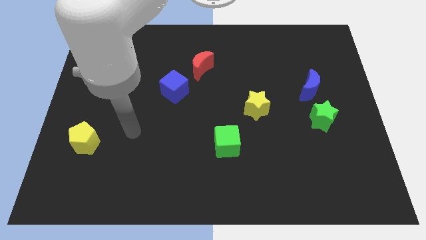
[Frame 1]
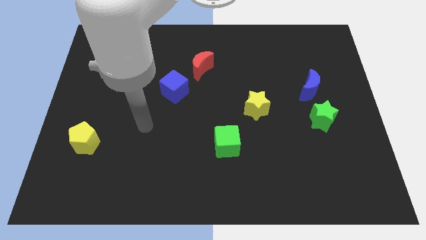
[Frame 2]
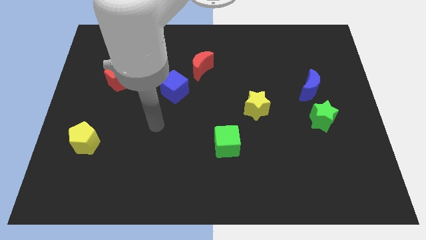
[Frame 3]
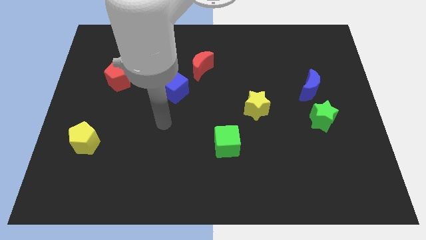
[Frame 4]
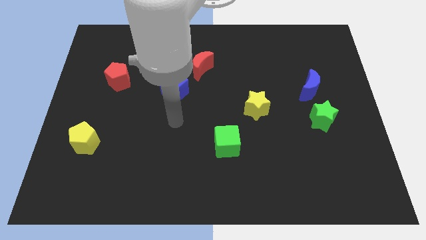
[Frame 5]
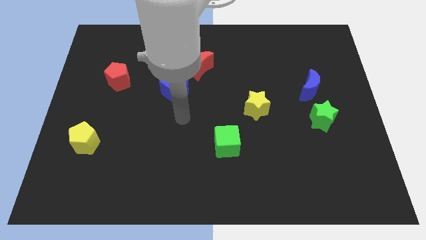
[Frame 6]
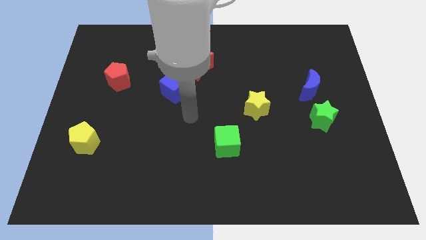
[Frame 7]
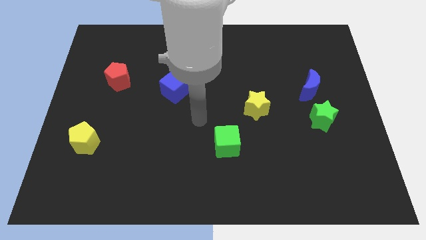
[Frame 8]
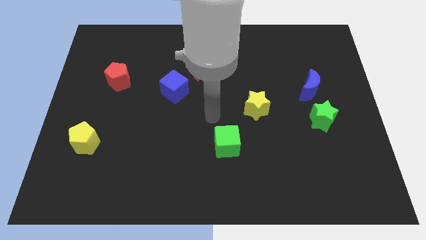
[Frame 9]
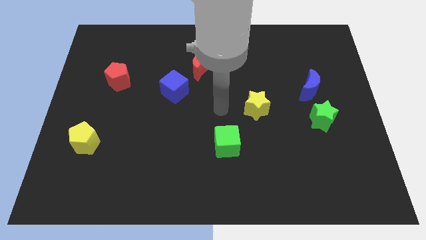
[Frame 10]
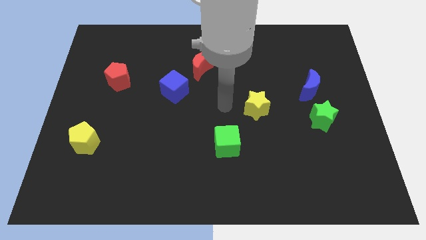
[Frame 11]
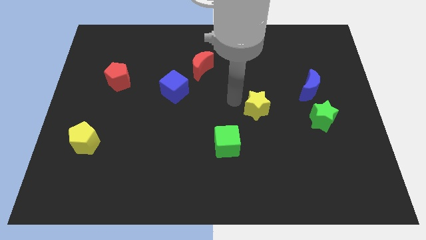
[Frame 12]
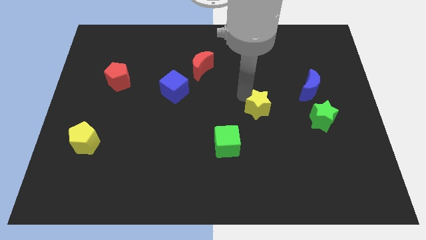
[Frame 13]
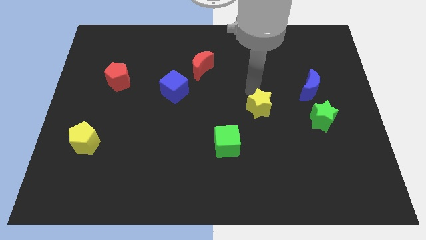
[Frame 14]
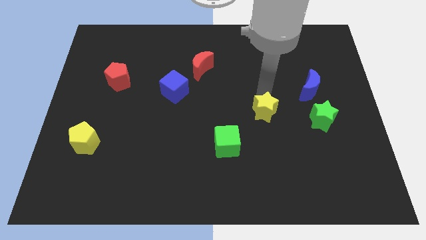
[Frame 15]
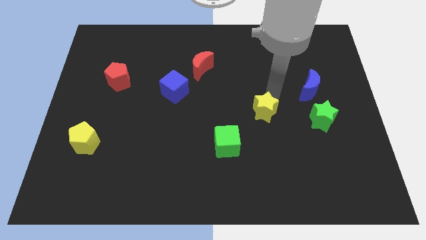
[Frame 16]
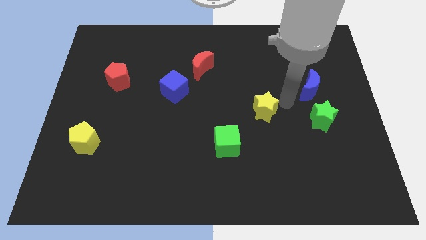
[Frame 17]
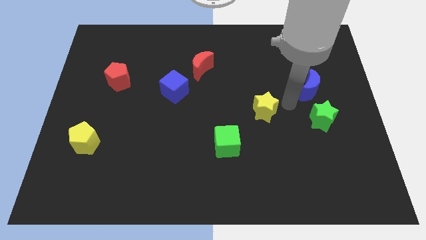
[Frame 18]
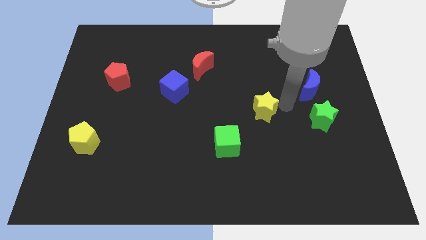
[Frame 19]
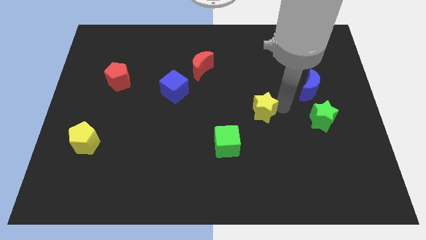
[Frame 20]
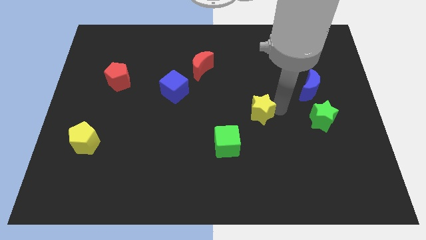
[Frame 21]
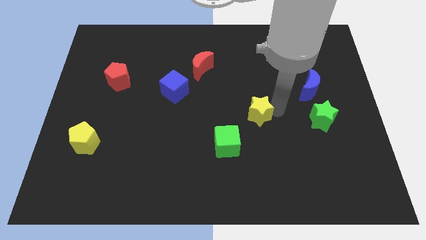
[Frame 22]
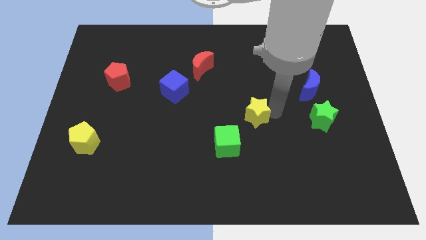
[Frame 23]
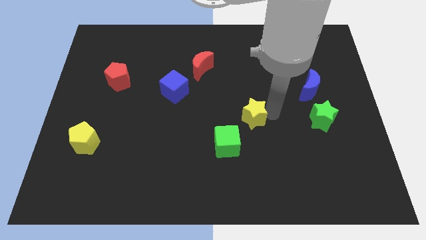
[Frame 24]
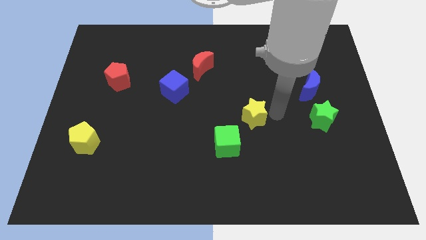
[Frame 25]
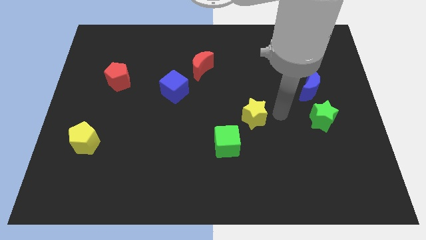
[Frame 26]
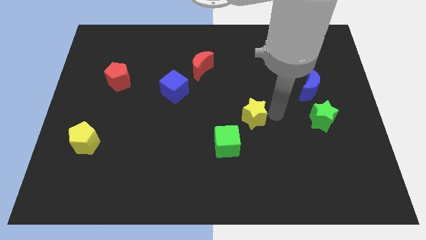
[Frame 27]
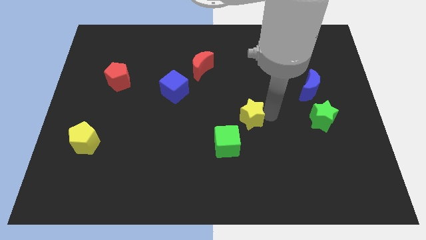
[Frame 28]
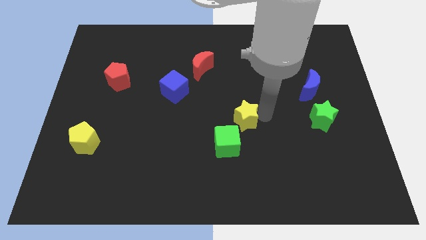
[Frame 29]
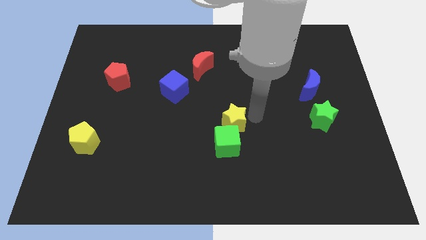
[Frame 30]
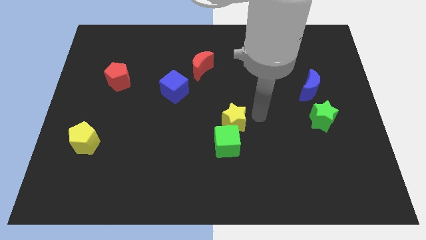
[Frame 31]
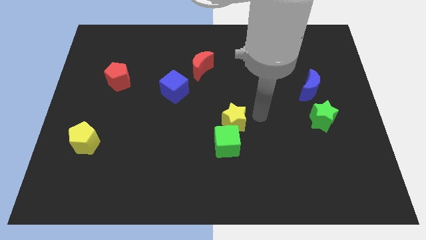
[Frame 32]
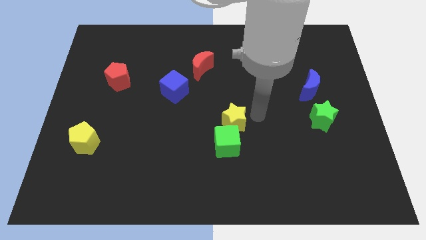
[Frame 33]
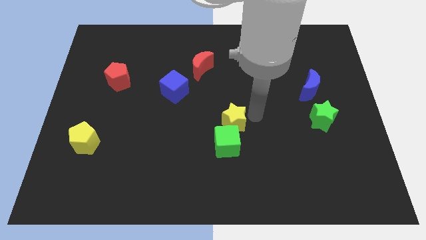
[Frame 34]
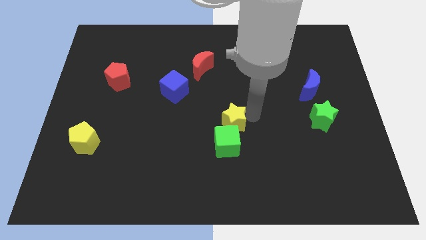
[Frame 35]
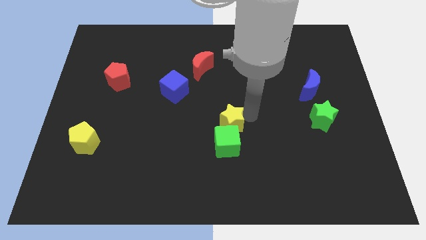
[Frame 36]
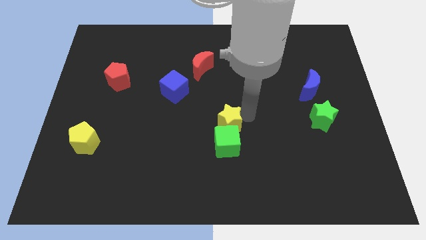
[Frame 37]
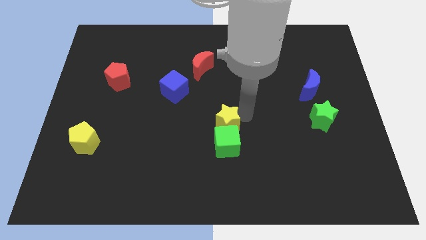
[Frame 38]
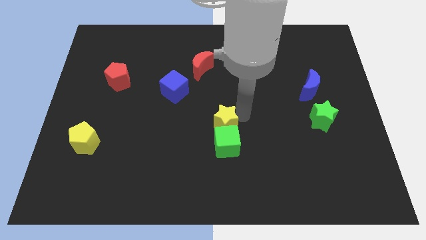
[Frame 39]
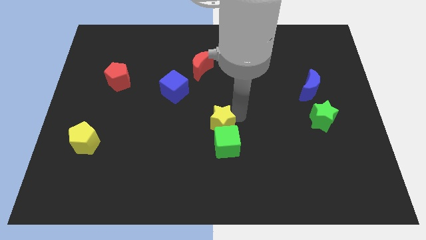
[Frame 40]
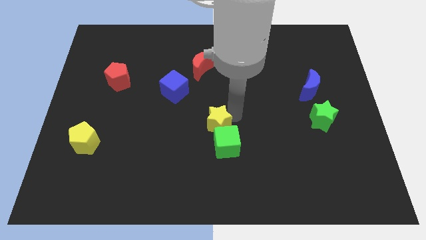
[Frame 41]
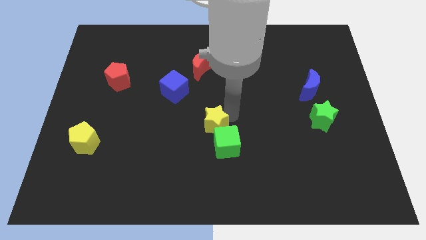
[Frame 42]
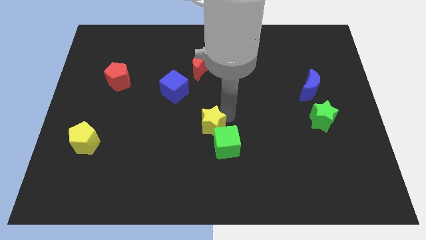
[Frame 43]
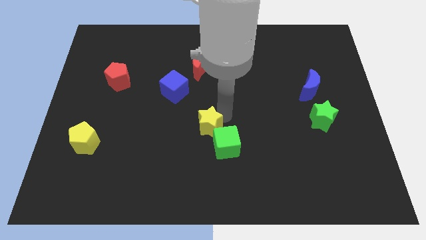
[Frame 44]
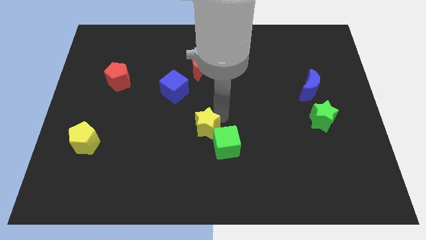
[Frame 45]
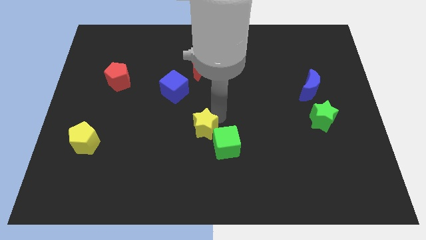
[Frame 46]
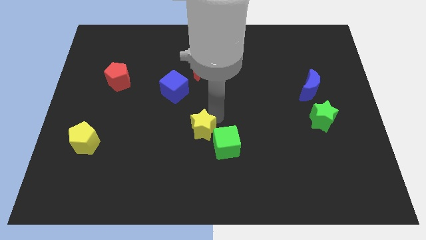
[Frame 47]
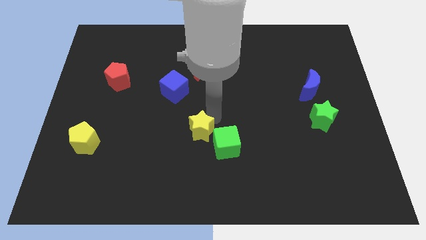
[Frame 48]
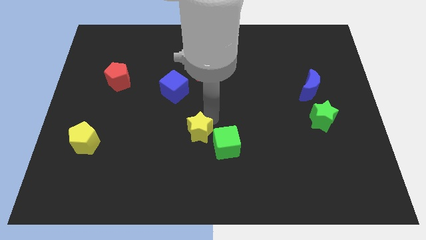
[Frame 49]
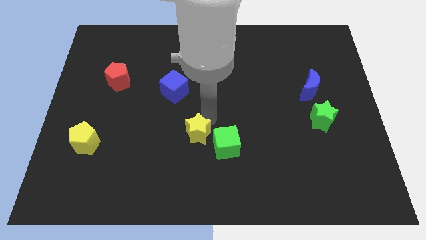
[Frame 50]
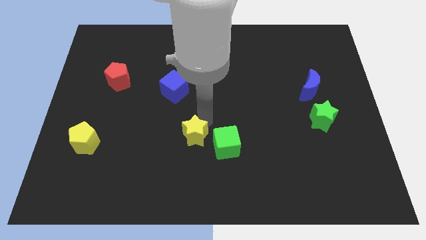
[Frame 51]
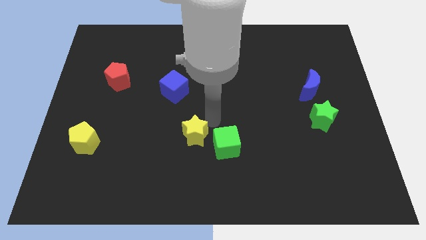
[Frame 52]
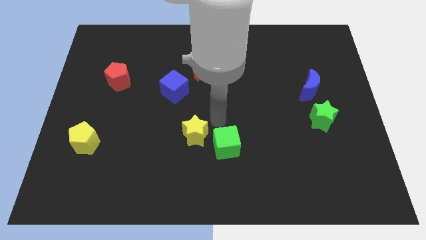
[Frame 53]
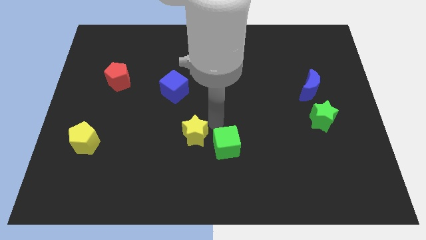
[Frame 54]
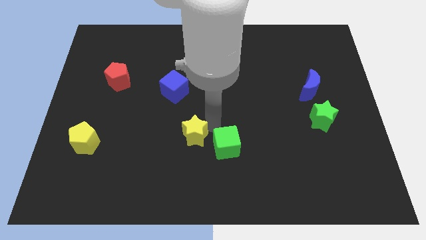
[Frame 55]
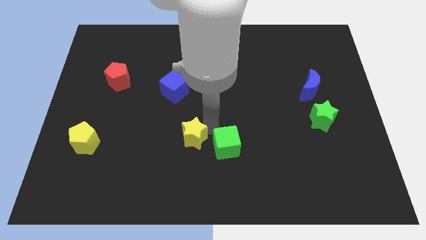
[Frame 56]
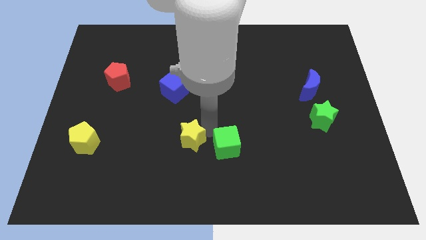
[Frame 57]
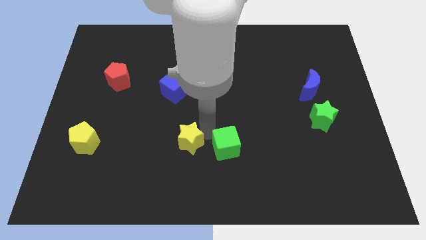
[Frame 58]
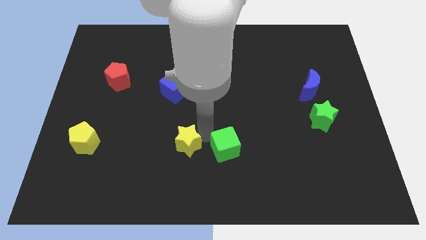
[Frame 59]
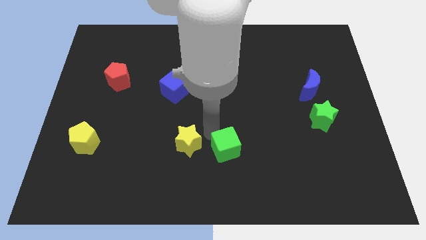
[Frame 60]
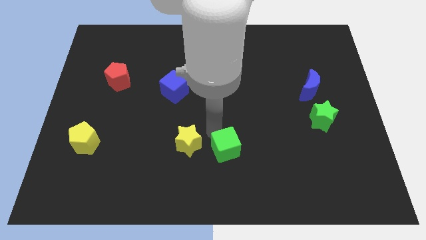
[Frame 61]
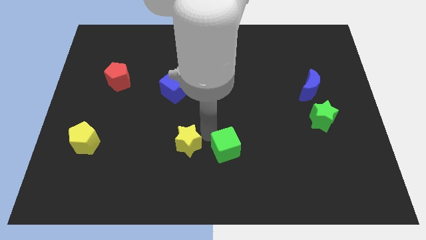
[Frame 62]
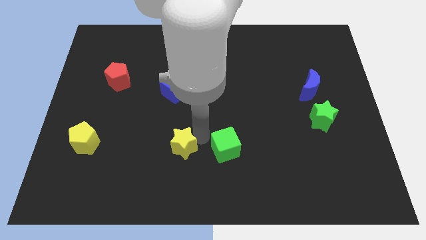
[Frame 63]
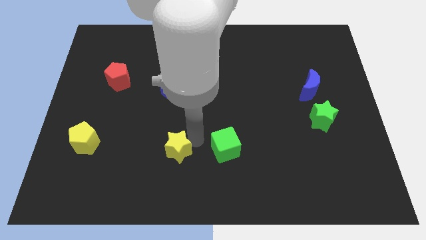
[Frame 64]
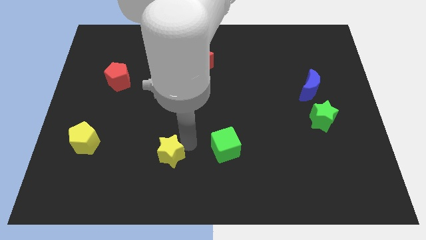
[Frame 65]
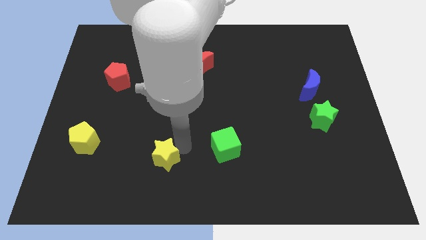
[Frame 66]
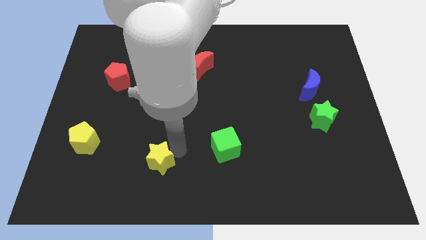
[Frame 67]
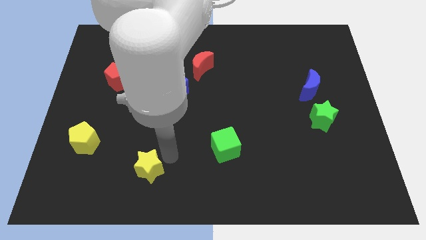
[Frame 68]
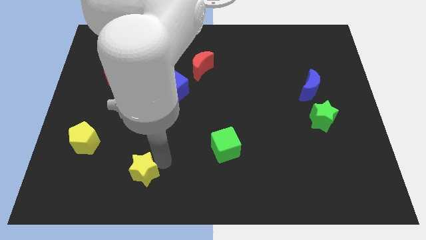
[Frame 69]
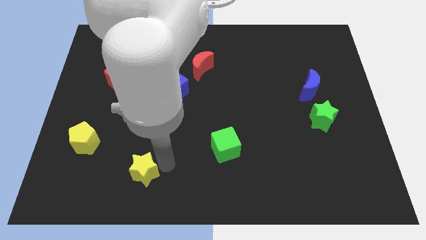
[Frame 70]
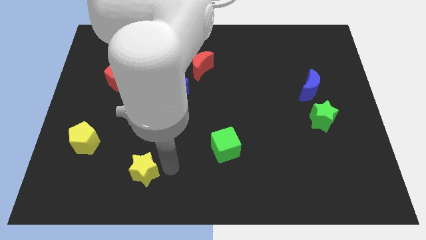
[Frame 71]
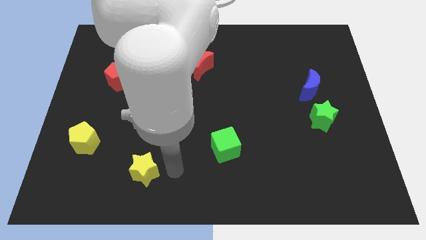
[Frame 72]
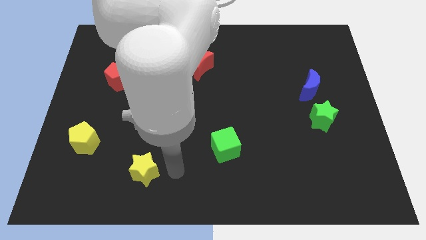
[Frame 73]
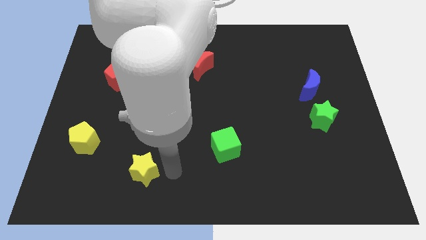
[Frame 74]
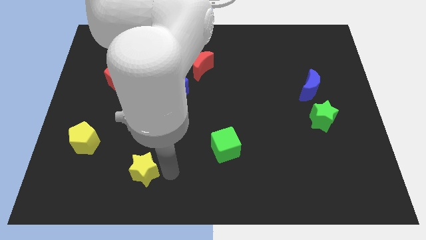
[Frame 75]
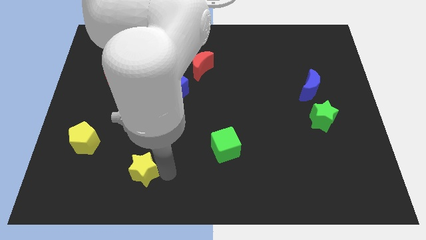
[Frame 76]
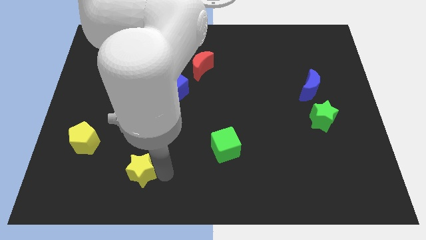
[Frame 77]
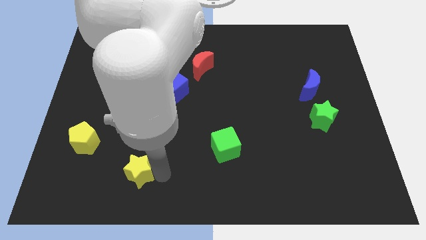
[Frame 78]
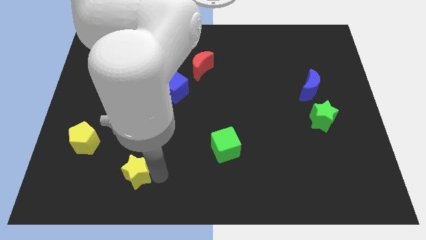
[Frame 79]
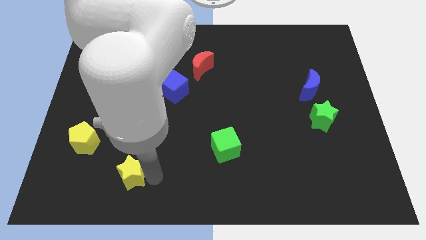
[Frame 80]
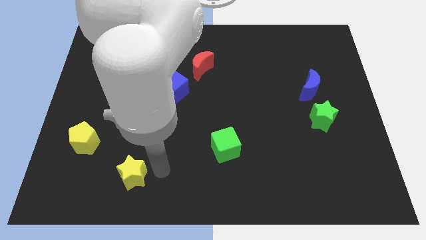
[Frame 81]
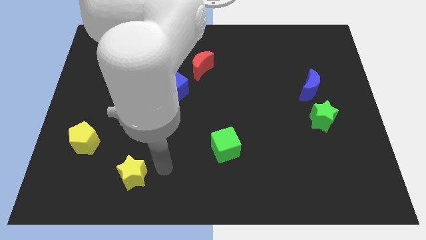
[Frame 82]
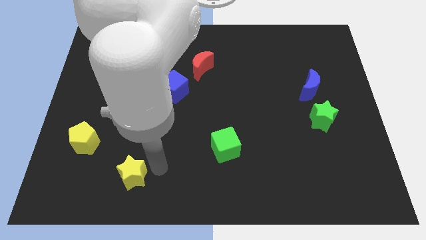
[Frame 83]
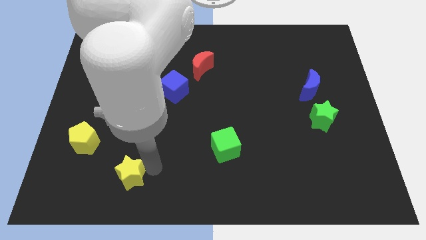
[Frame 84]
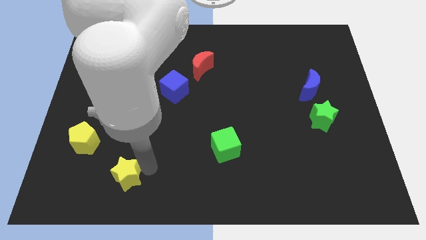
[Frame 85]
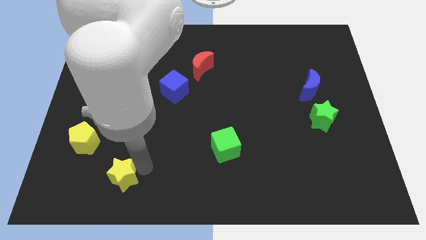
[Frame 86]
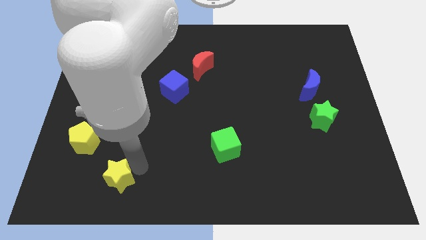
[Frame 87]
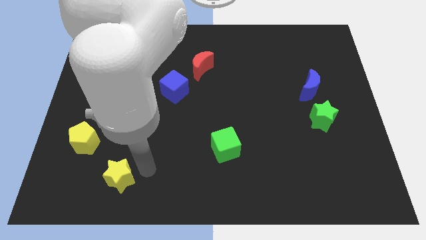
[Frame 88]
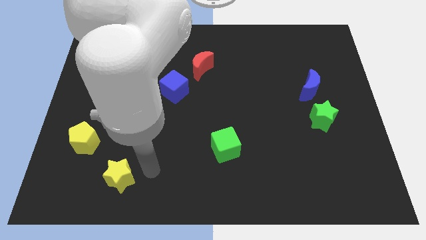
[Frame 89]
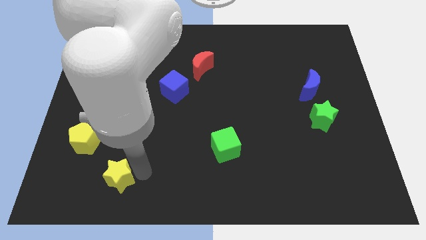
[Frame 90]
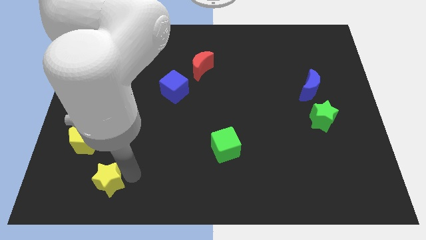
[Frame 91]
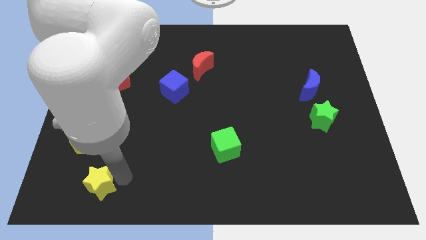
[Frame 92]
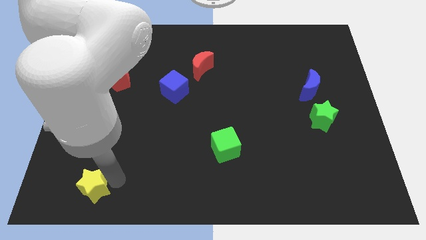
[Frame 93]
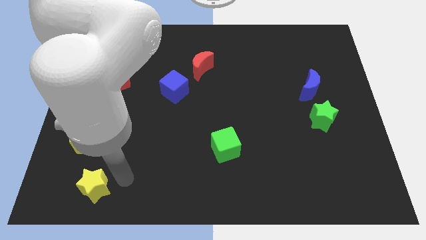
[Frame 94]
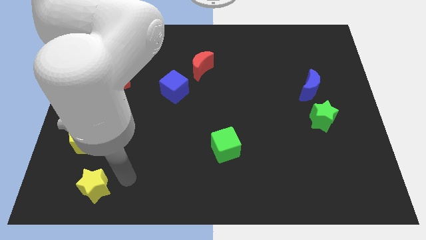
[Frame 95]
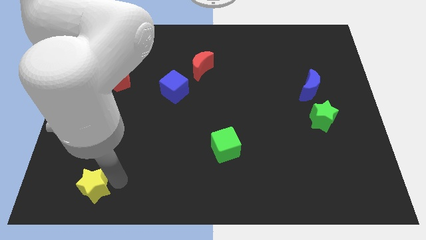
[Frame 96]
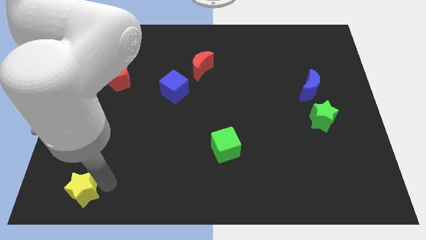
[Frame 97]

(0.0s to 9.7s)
move the yellow star to the lower left corner
